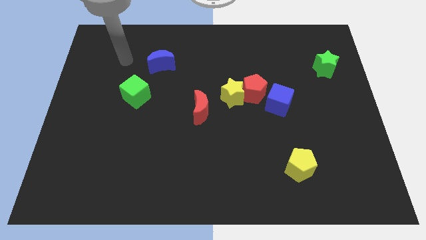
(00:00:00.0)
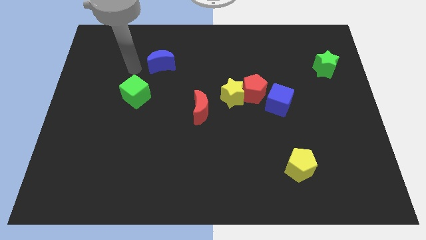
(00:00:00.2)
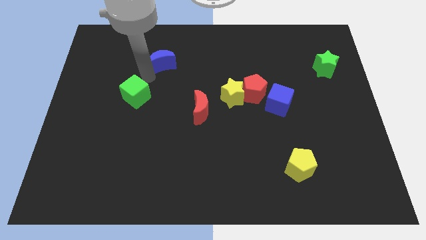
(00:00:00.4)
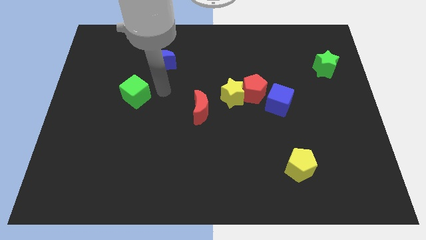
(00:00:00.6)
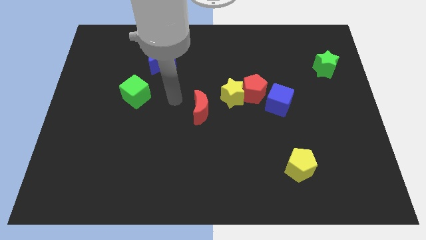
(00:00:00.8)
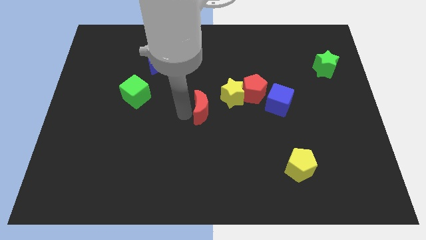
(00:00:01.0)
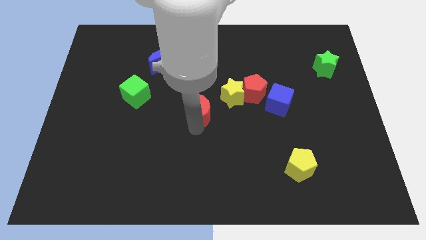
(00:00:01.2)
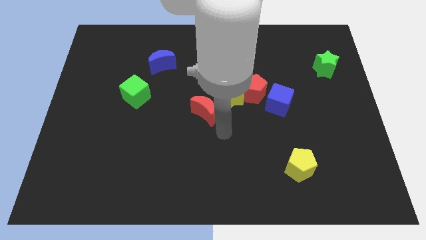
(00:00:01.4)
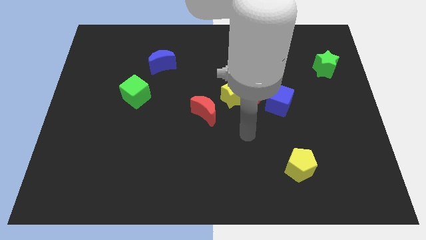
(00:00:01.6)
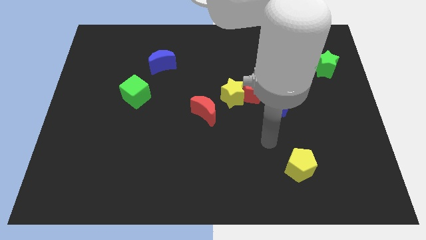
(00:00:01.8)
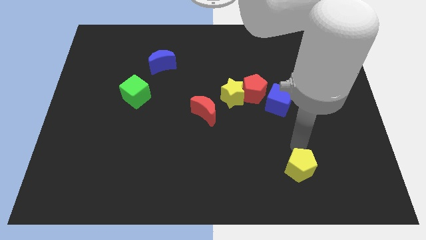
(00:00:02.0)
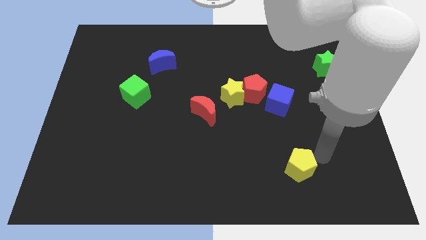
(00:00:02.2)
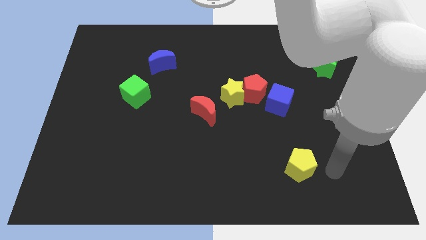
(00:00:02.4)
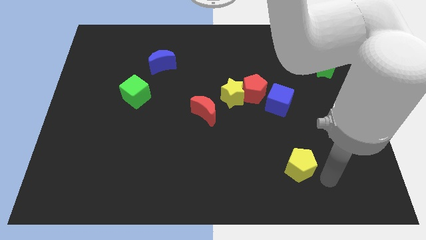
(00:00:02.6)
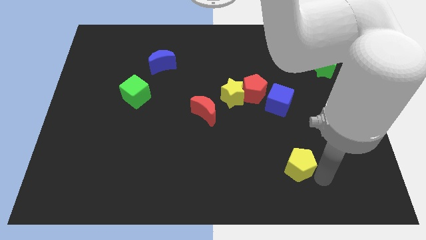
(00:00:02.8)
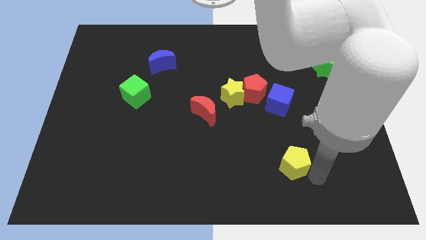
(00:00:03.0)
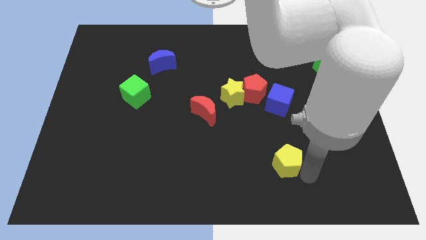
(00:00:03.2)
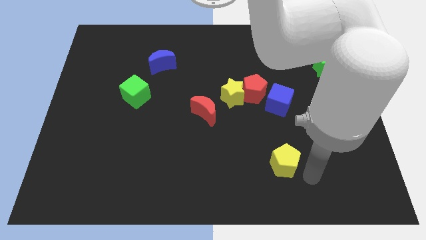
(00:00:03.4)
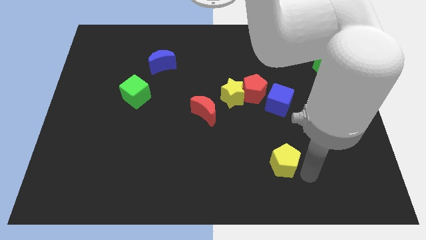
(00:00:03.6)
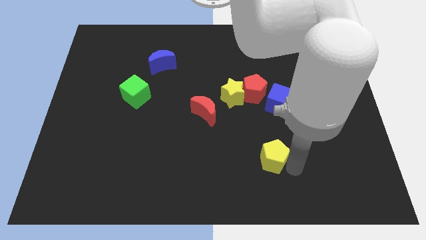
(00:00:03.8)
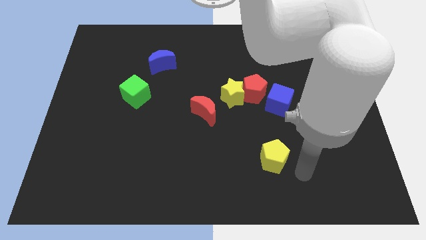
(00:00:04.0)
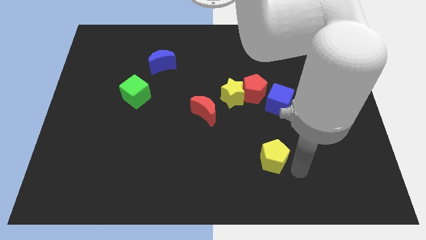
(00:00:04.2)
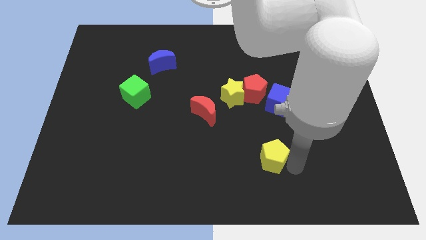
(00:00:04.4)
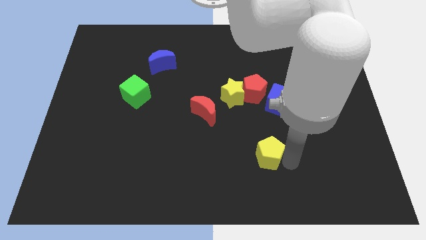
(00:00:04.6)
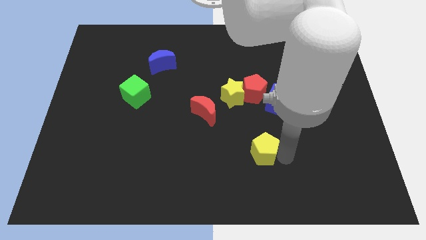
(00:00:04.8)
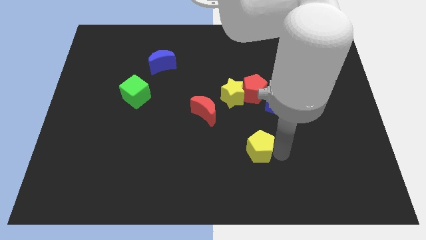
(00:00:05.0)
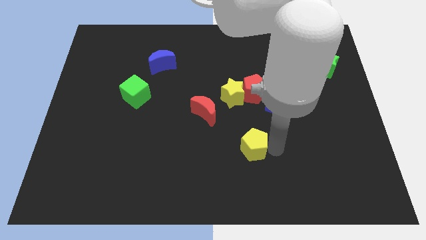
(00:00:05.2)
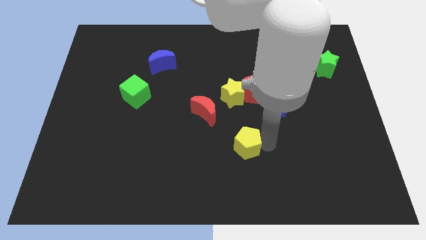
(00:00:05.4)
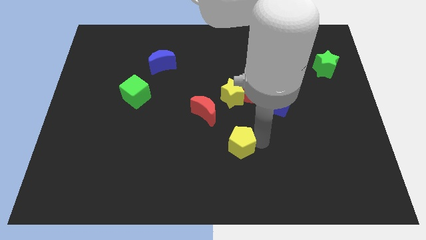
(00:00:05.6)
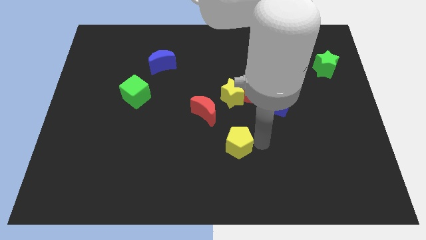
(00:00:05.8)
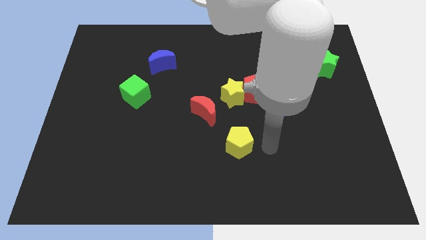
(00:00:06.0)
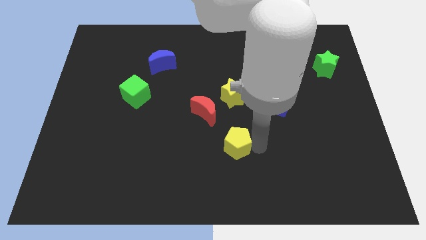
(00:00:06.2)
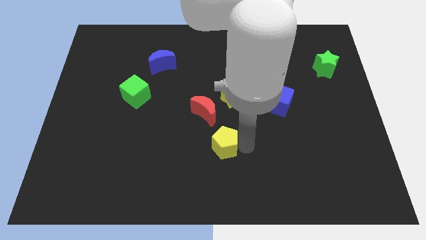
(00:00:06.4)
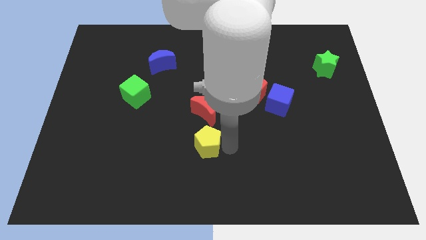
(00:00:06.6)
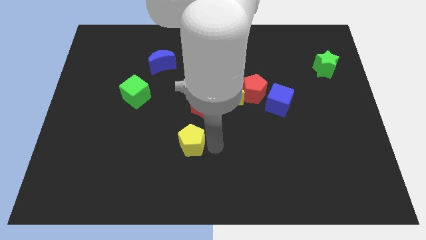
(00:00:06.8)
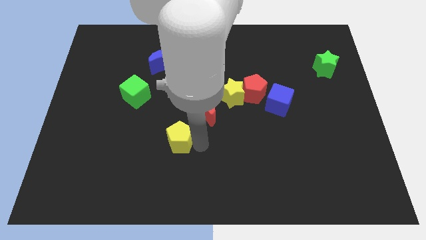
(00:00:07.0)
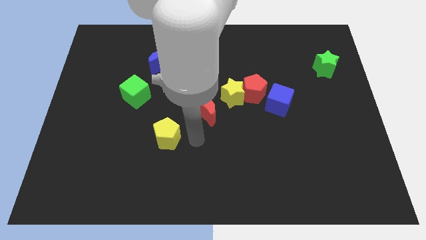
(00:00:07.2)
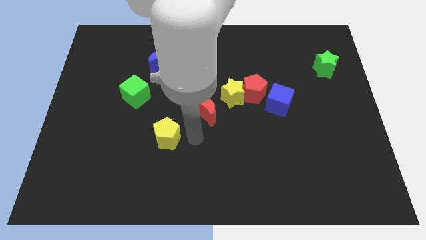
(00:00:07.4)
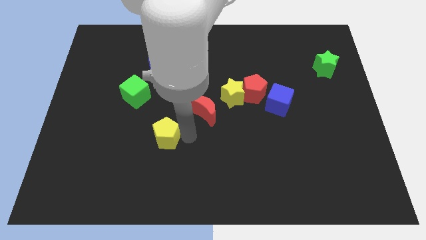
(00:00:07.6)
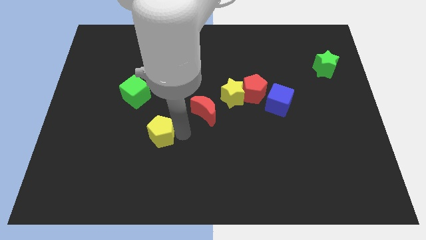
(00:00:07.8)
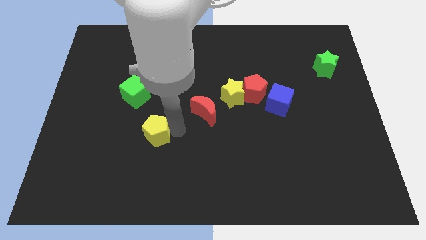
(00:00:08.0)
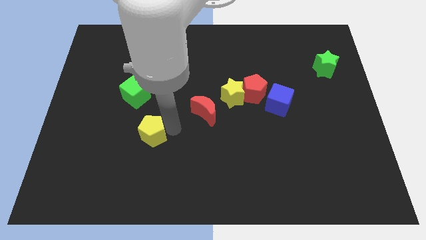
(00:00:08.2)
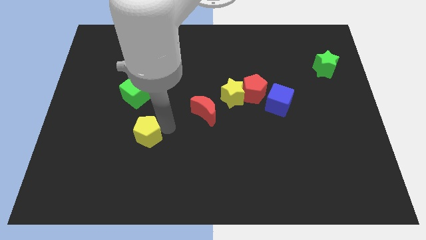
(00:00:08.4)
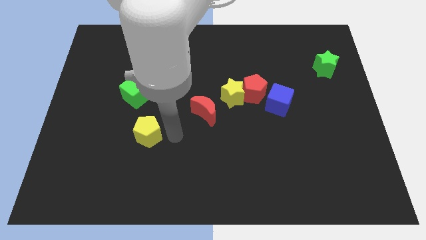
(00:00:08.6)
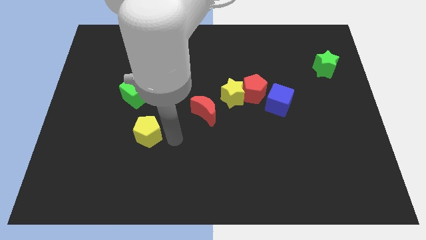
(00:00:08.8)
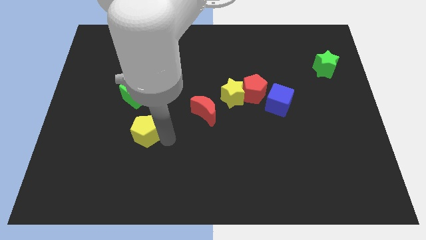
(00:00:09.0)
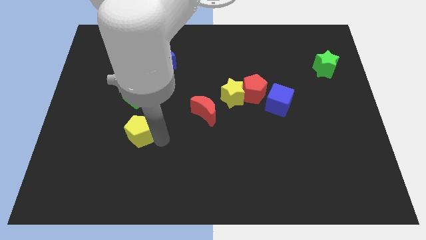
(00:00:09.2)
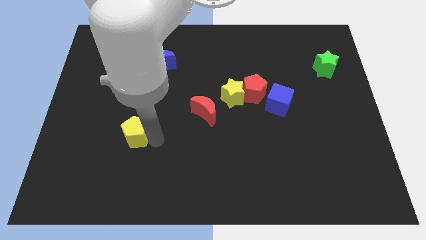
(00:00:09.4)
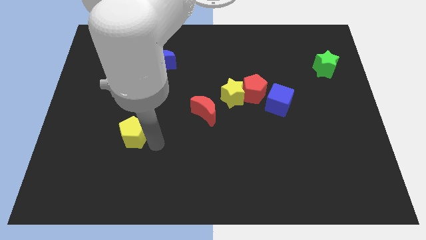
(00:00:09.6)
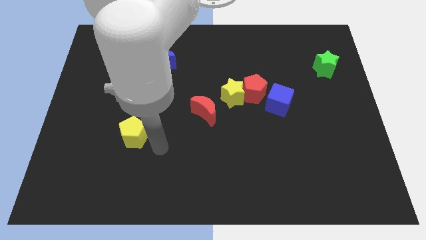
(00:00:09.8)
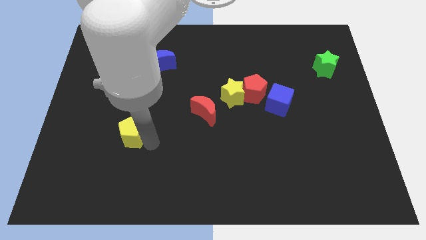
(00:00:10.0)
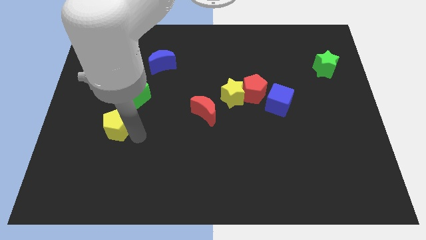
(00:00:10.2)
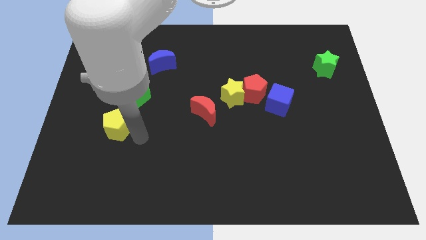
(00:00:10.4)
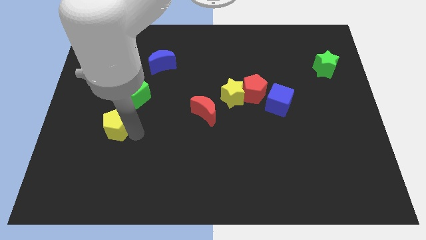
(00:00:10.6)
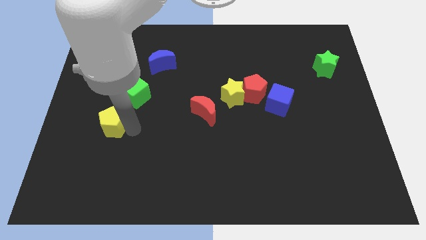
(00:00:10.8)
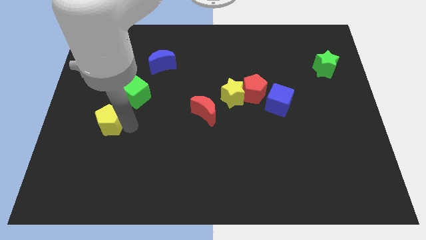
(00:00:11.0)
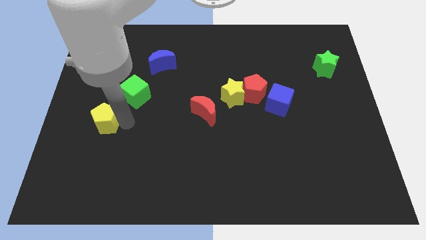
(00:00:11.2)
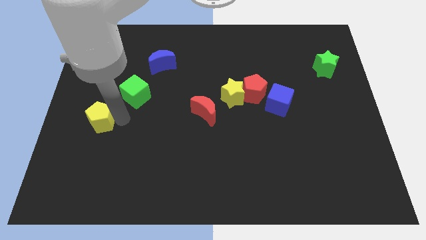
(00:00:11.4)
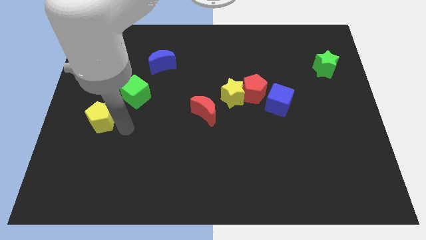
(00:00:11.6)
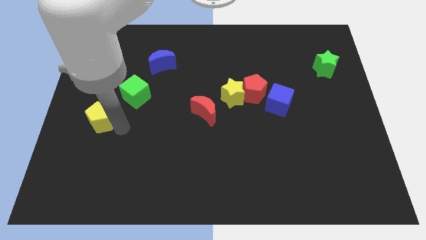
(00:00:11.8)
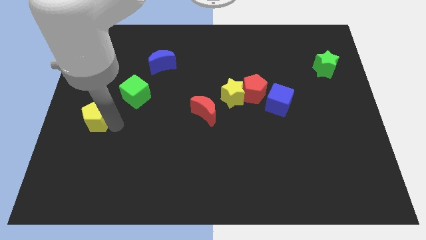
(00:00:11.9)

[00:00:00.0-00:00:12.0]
slide the yellow pentagon to the left side of the board

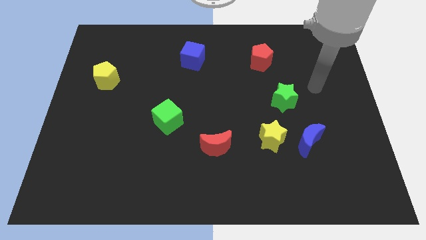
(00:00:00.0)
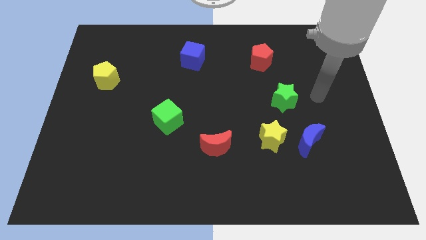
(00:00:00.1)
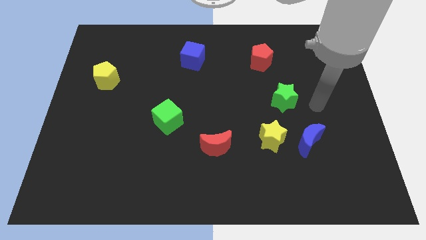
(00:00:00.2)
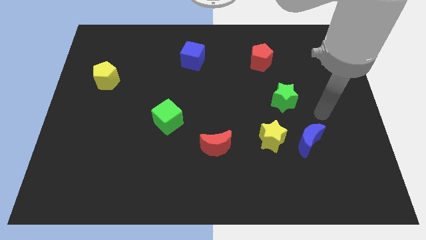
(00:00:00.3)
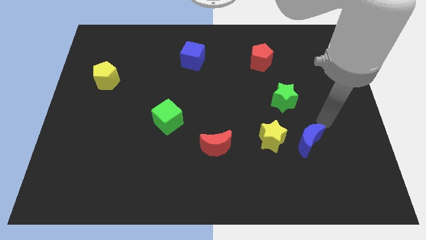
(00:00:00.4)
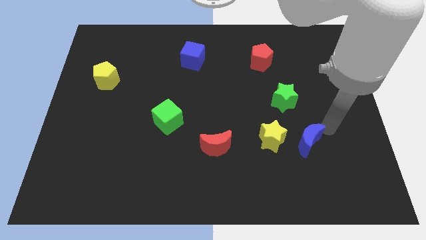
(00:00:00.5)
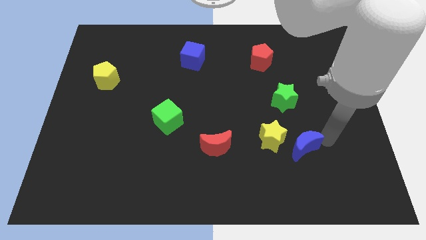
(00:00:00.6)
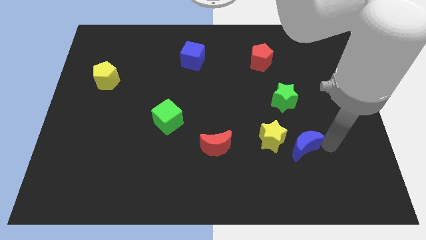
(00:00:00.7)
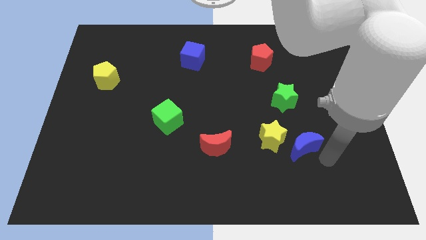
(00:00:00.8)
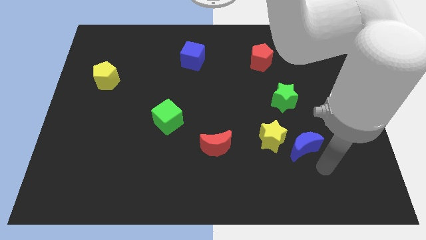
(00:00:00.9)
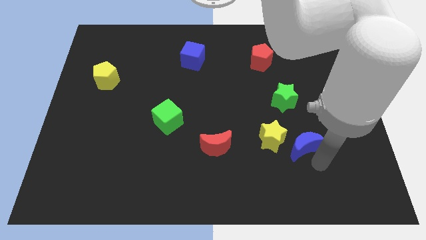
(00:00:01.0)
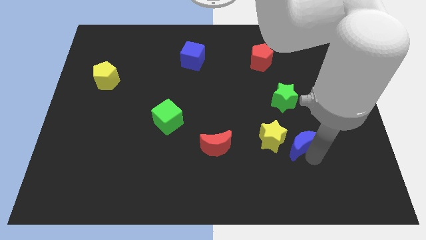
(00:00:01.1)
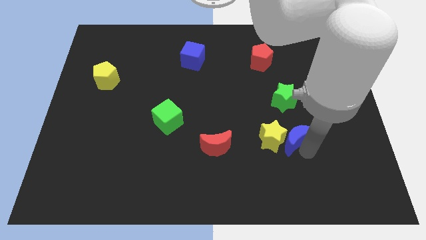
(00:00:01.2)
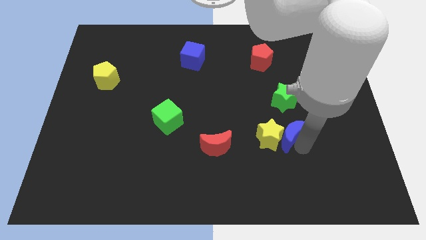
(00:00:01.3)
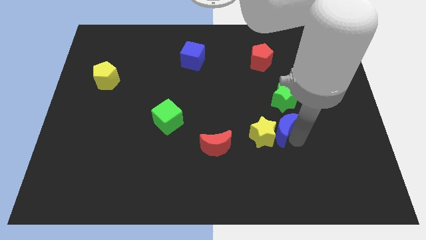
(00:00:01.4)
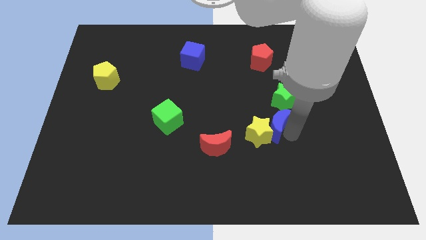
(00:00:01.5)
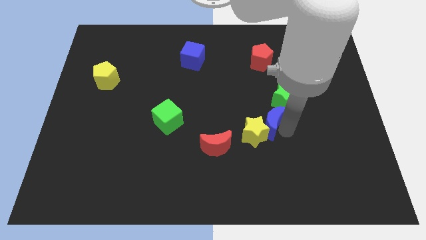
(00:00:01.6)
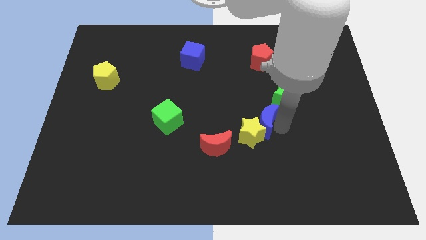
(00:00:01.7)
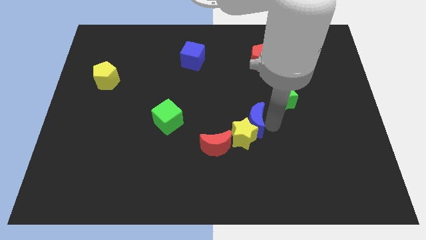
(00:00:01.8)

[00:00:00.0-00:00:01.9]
slide the blue moon to the middle of the board
